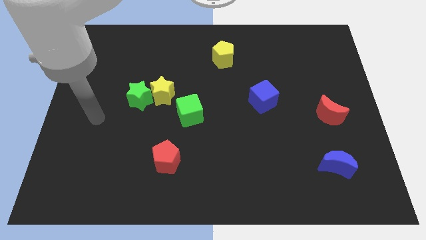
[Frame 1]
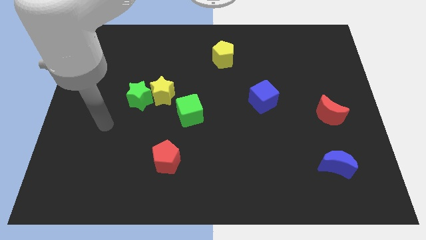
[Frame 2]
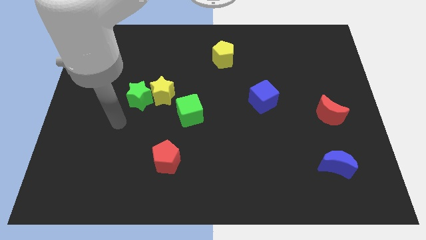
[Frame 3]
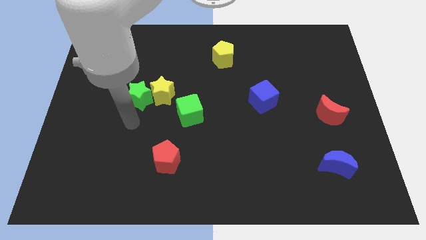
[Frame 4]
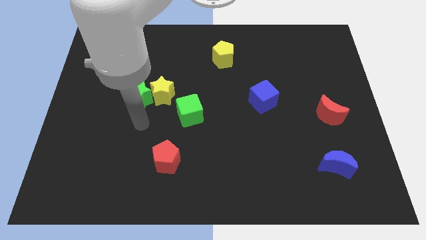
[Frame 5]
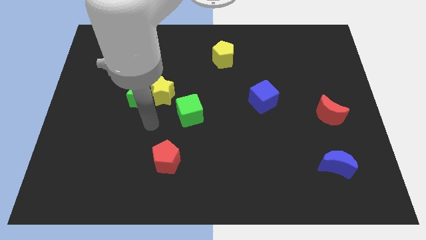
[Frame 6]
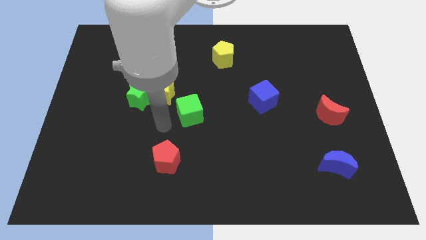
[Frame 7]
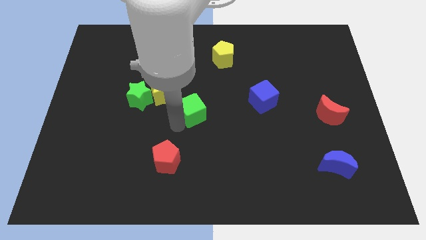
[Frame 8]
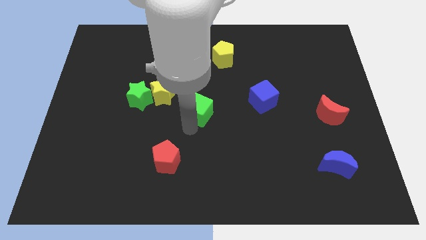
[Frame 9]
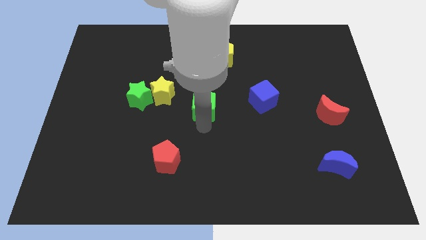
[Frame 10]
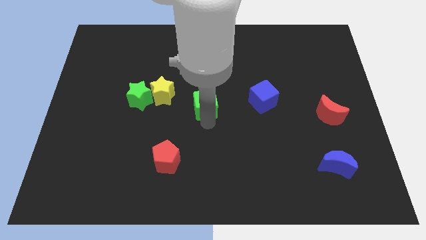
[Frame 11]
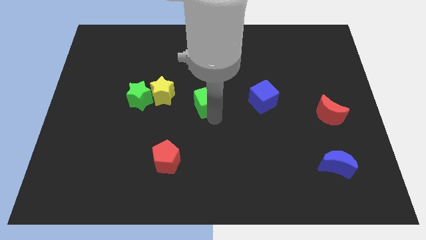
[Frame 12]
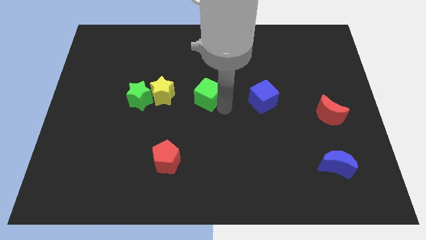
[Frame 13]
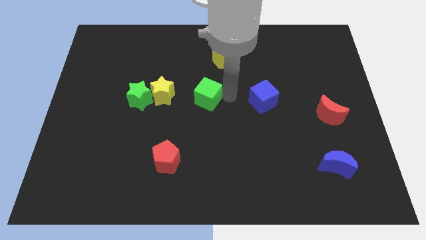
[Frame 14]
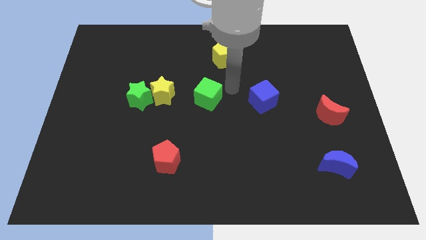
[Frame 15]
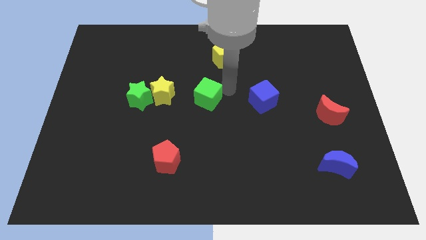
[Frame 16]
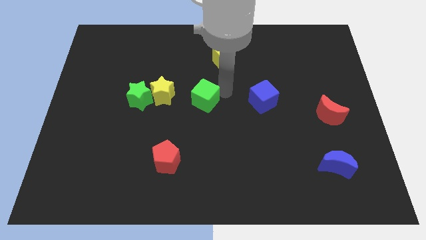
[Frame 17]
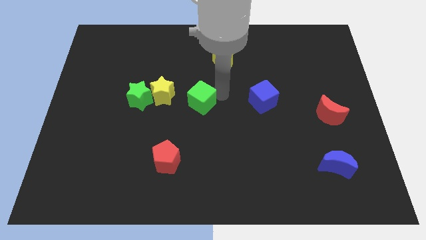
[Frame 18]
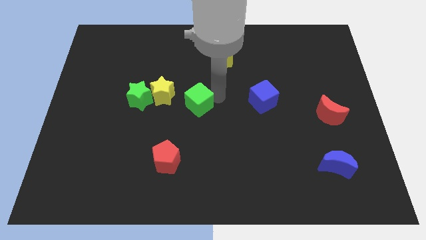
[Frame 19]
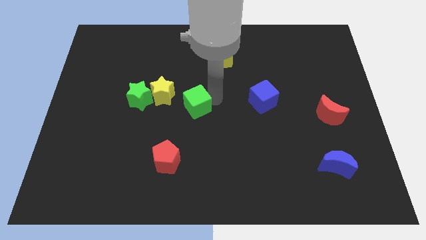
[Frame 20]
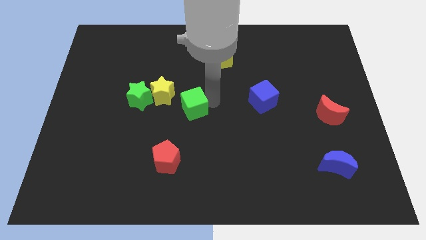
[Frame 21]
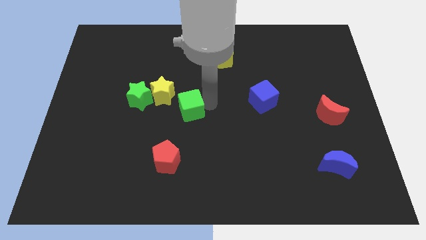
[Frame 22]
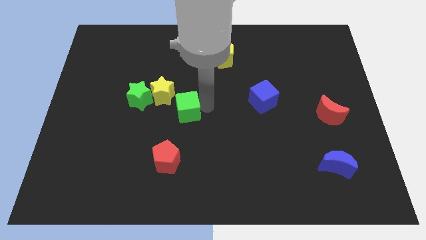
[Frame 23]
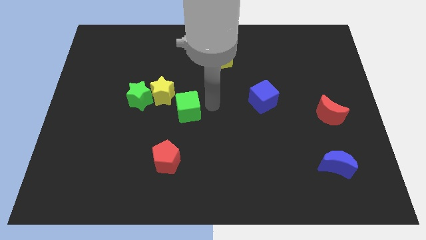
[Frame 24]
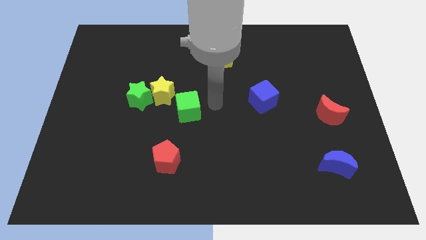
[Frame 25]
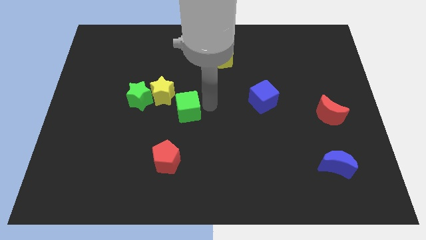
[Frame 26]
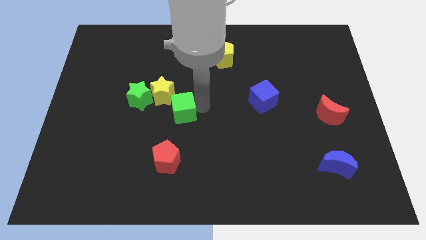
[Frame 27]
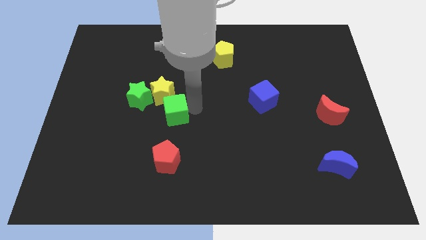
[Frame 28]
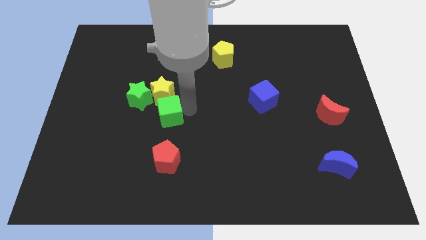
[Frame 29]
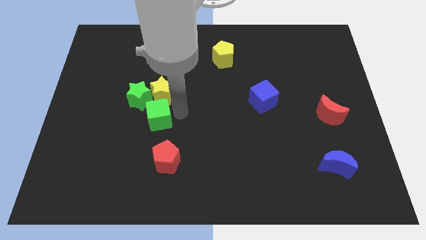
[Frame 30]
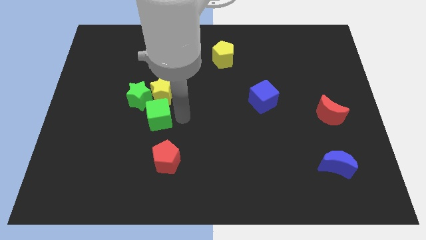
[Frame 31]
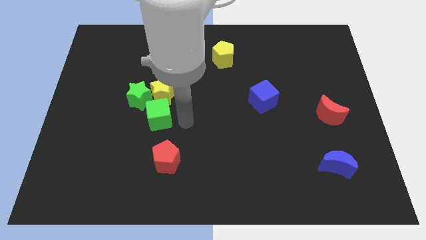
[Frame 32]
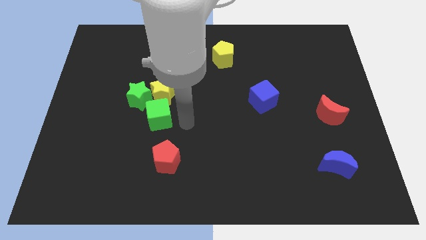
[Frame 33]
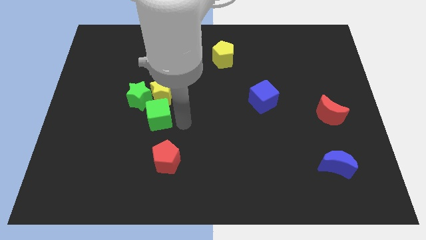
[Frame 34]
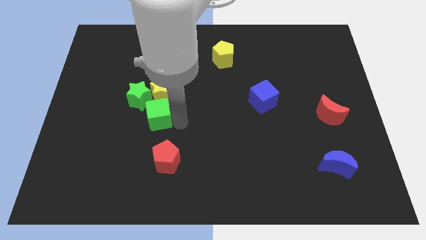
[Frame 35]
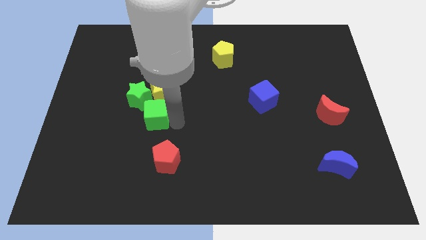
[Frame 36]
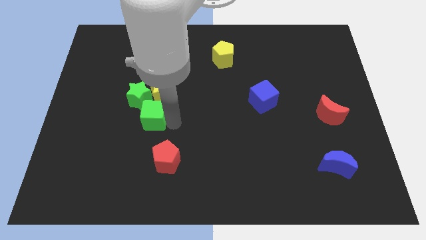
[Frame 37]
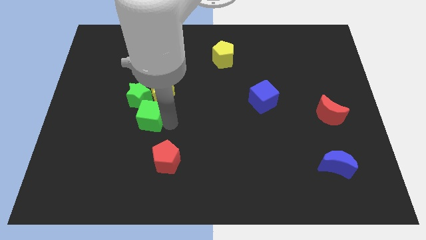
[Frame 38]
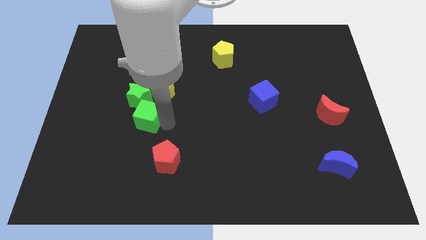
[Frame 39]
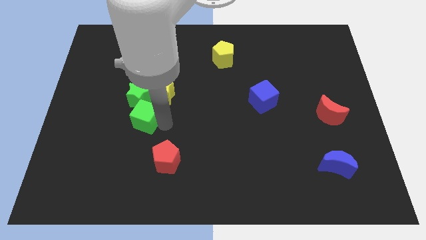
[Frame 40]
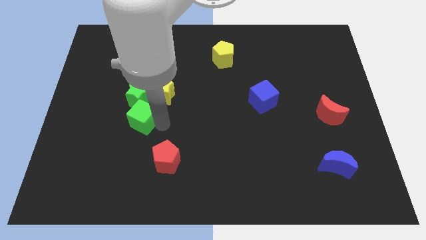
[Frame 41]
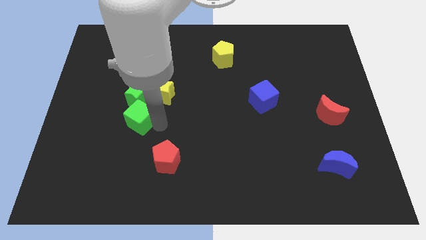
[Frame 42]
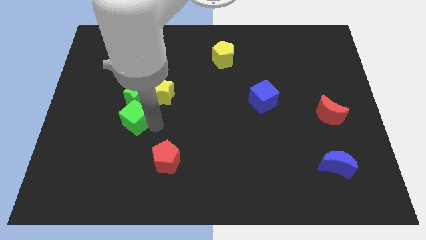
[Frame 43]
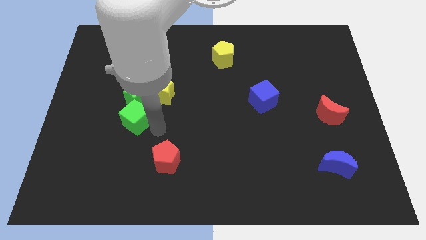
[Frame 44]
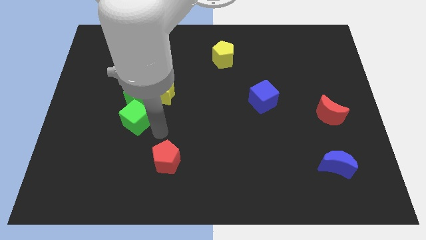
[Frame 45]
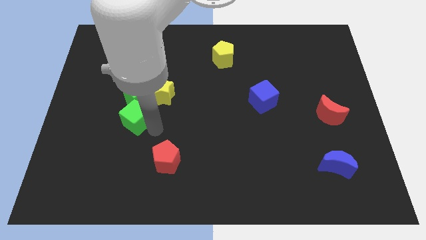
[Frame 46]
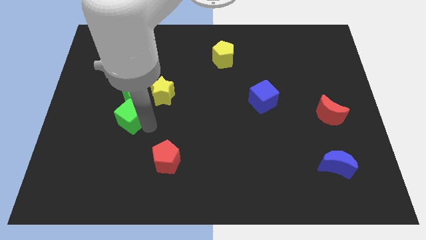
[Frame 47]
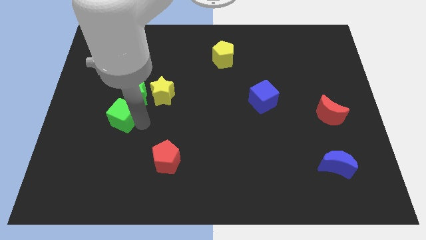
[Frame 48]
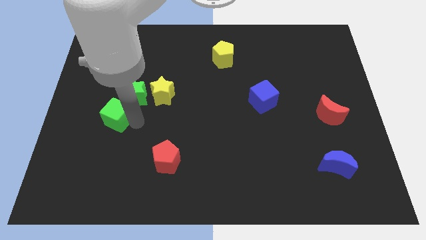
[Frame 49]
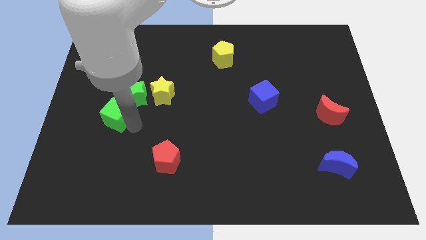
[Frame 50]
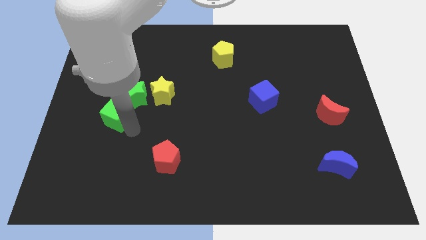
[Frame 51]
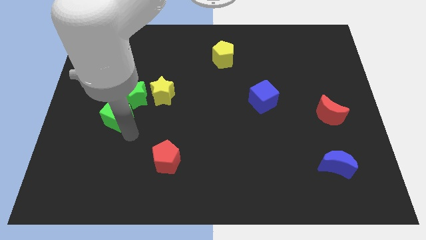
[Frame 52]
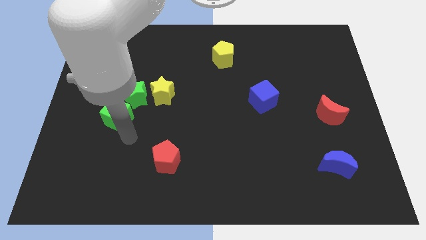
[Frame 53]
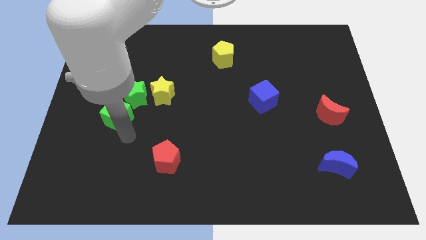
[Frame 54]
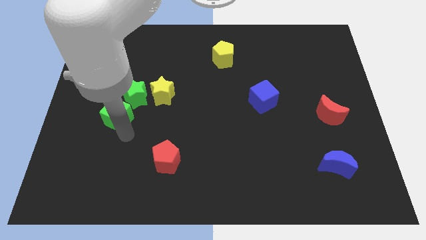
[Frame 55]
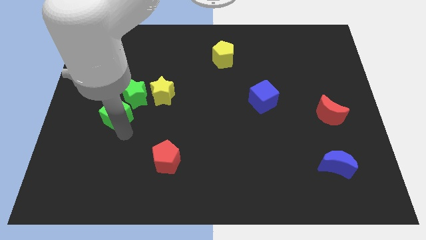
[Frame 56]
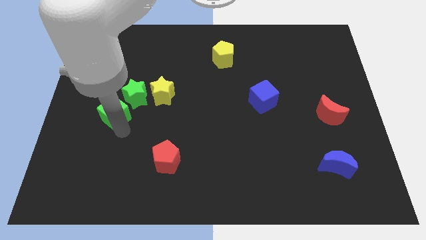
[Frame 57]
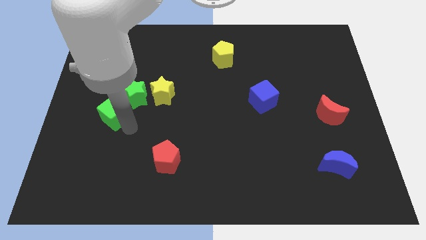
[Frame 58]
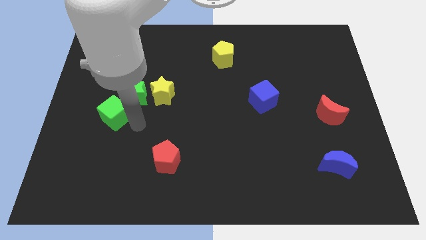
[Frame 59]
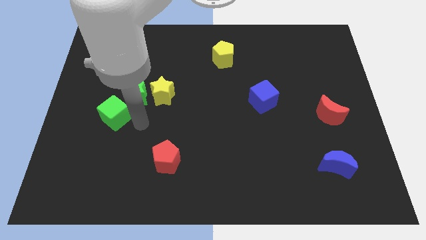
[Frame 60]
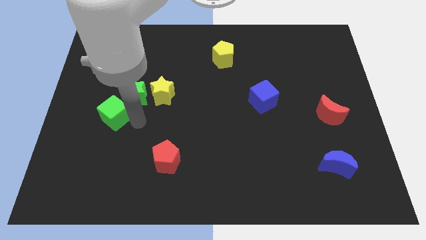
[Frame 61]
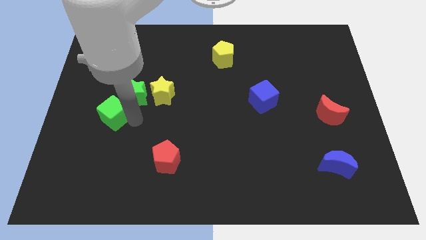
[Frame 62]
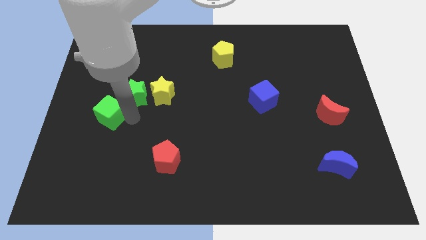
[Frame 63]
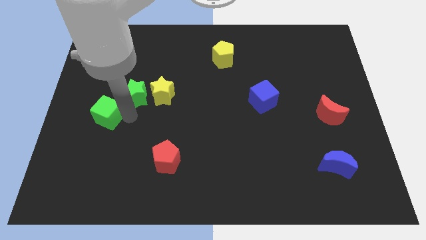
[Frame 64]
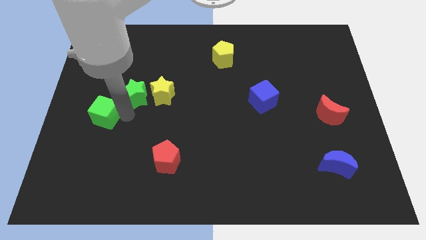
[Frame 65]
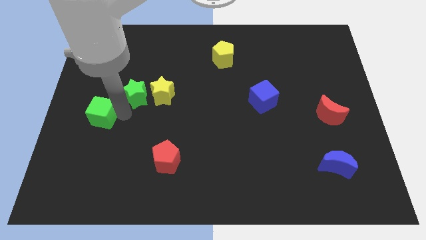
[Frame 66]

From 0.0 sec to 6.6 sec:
move the green cube to the center left
